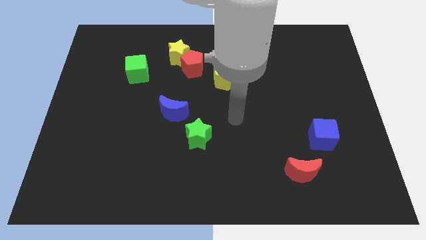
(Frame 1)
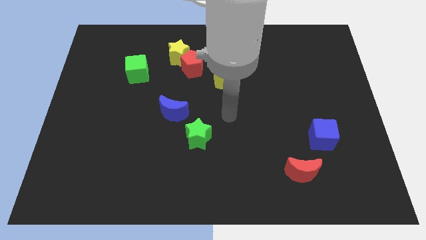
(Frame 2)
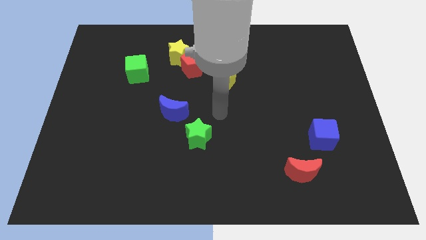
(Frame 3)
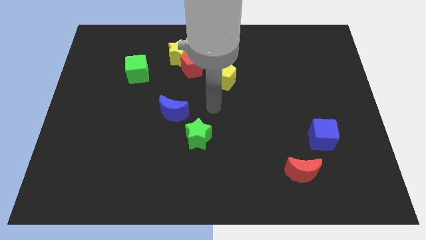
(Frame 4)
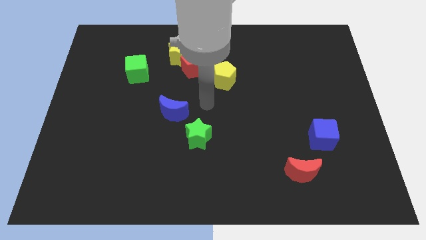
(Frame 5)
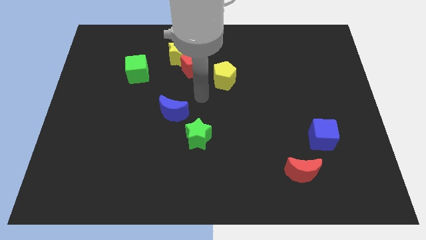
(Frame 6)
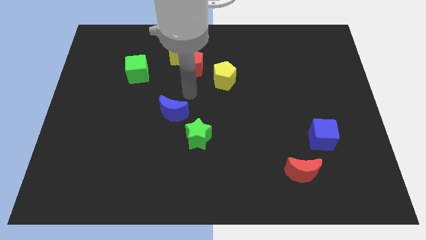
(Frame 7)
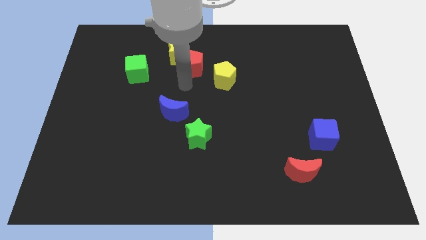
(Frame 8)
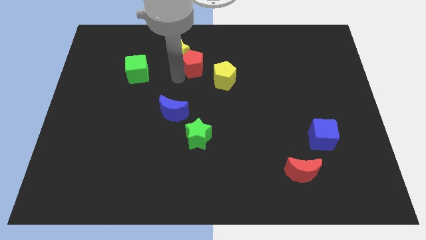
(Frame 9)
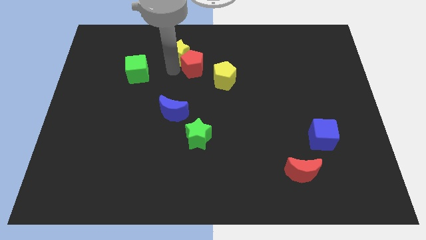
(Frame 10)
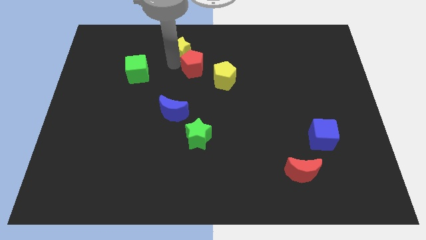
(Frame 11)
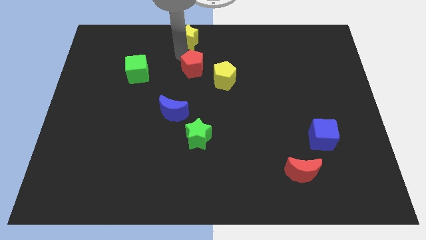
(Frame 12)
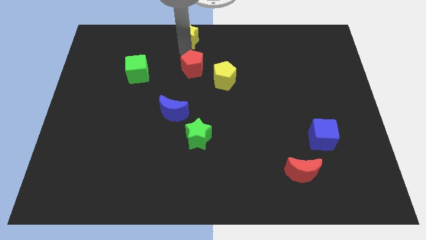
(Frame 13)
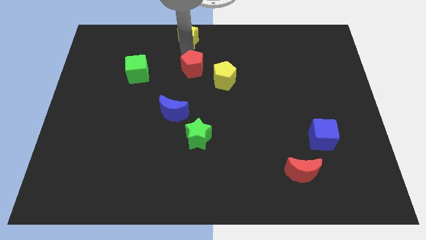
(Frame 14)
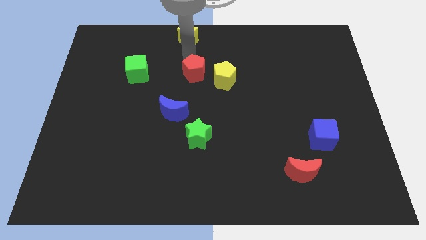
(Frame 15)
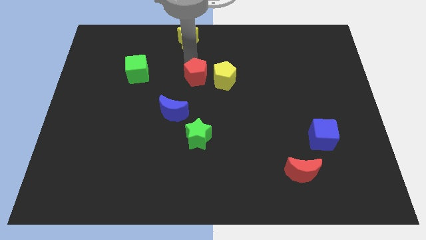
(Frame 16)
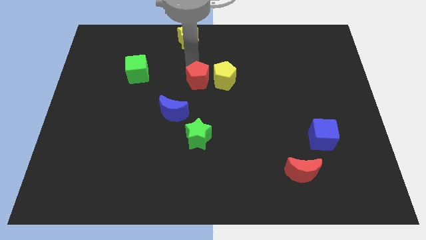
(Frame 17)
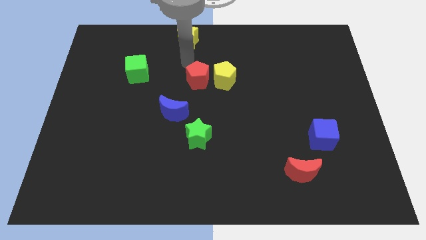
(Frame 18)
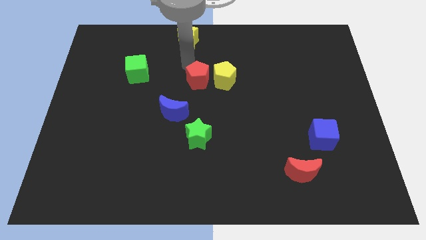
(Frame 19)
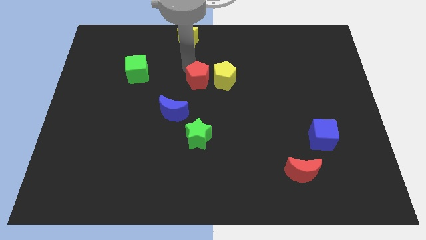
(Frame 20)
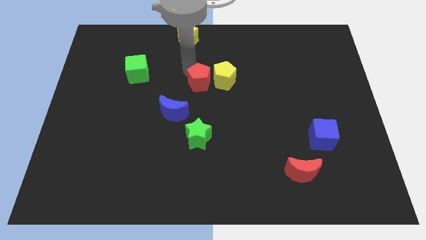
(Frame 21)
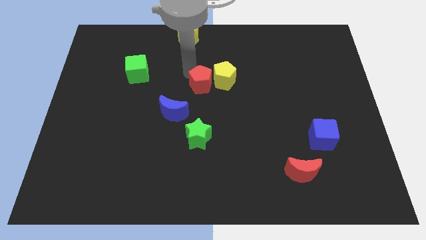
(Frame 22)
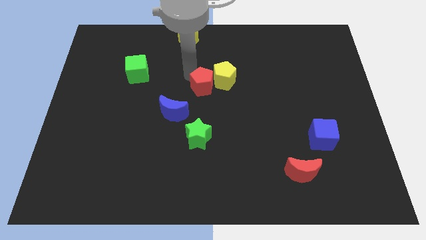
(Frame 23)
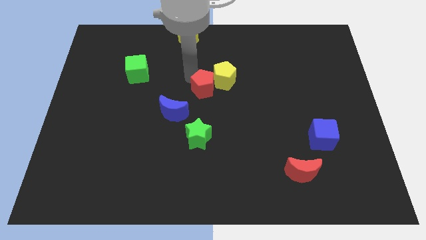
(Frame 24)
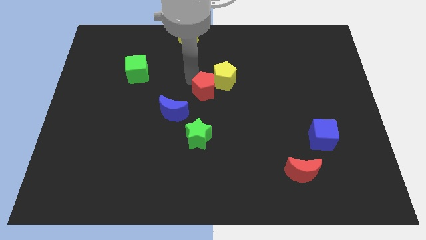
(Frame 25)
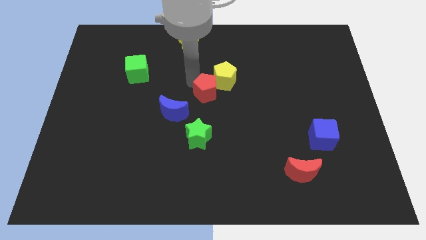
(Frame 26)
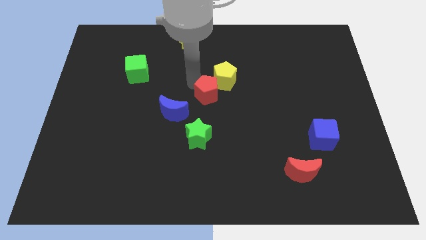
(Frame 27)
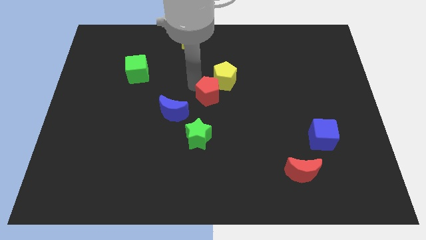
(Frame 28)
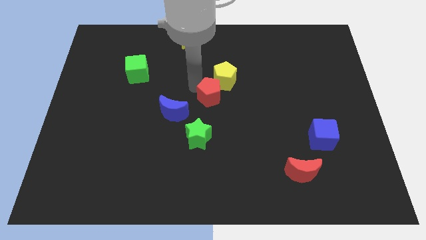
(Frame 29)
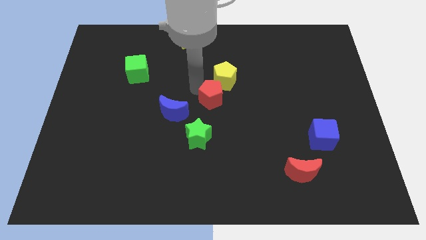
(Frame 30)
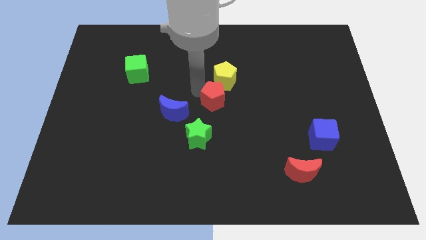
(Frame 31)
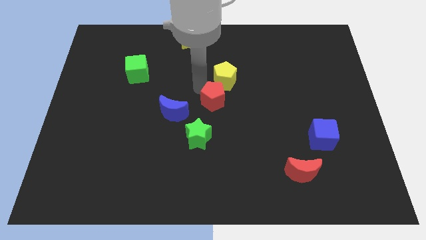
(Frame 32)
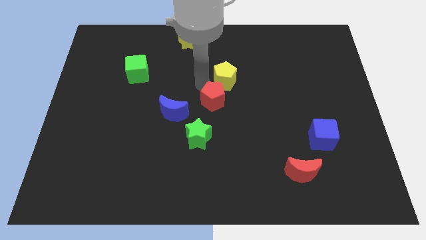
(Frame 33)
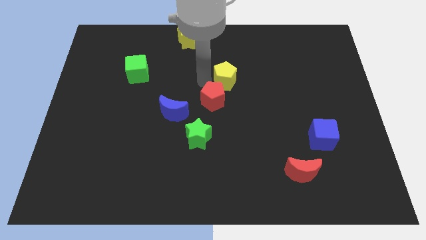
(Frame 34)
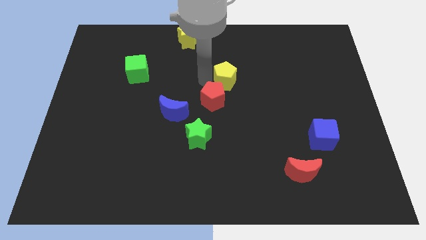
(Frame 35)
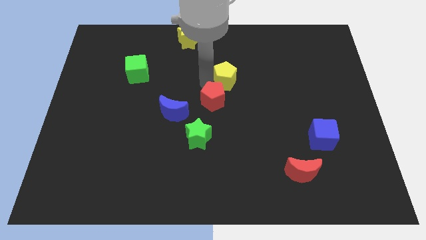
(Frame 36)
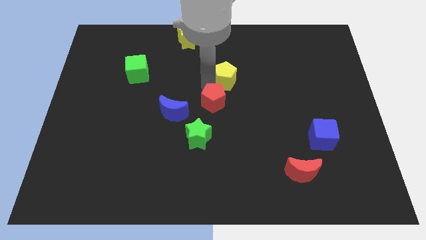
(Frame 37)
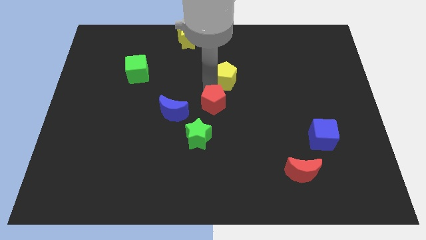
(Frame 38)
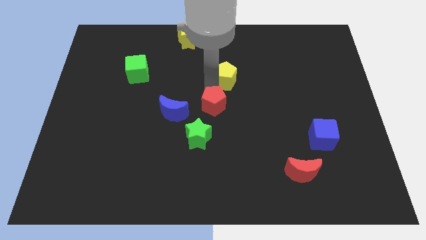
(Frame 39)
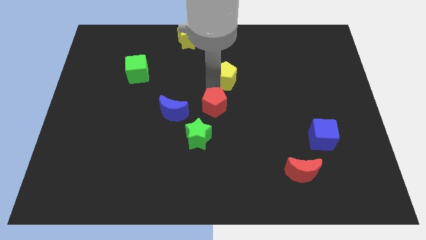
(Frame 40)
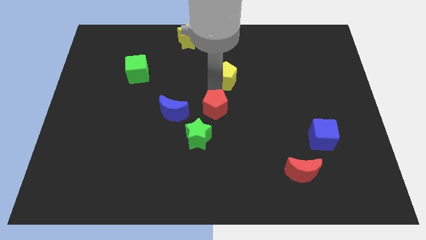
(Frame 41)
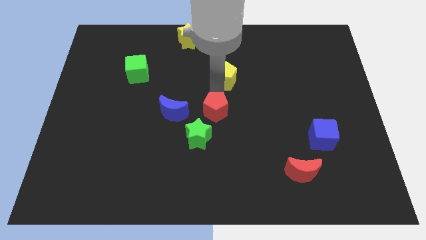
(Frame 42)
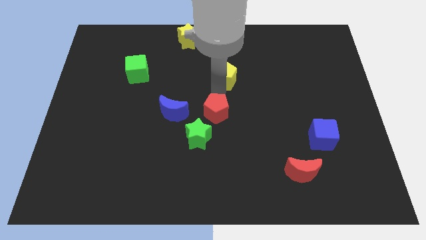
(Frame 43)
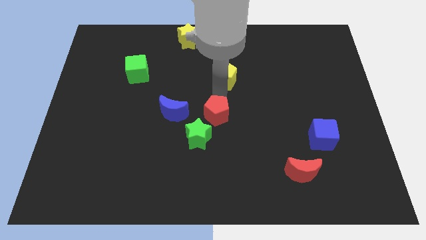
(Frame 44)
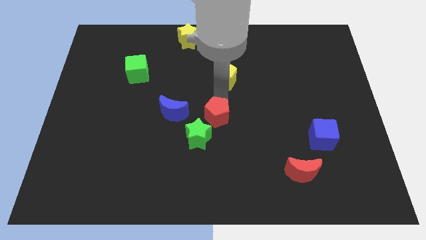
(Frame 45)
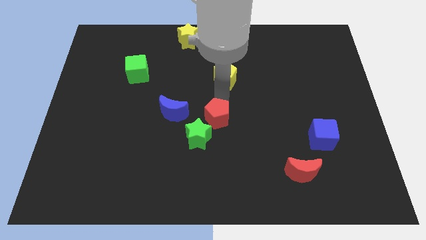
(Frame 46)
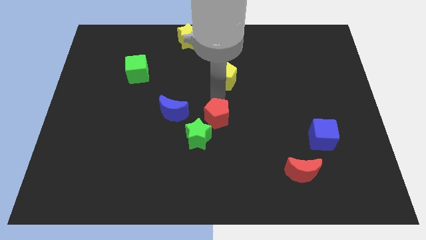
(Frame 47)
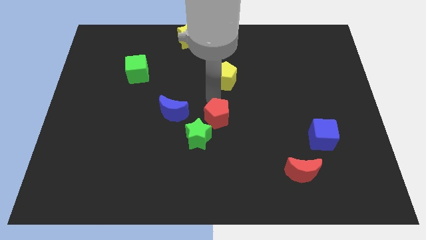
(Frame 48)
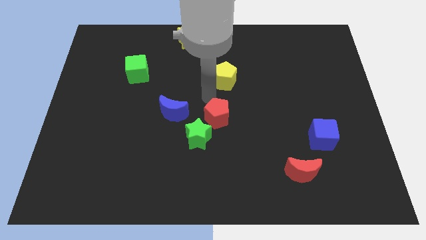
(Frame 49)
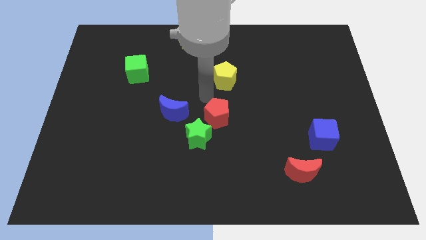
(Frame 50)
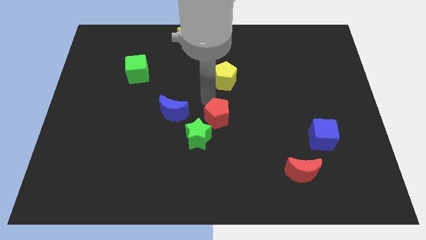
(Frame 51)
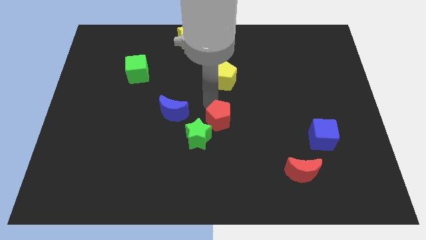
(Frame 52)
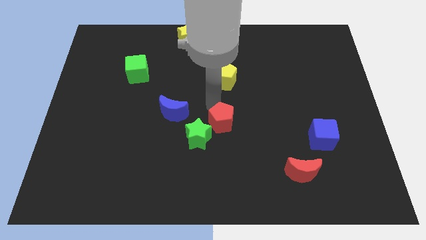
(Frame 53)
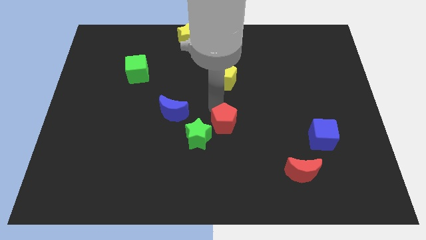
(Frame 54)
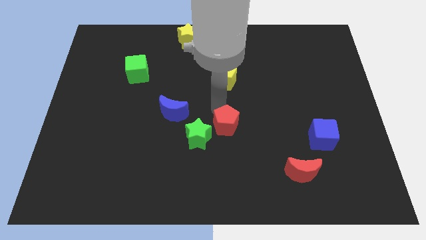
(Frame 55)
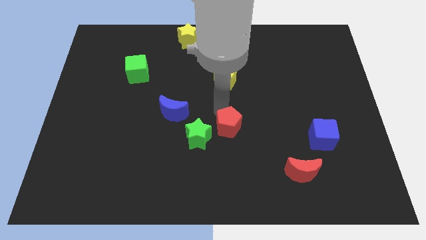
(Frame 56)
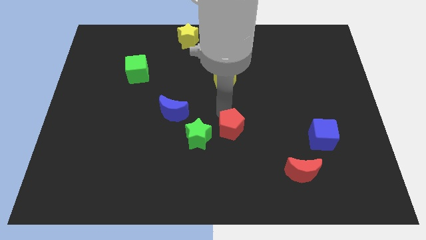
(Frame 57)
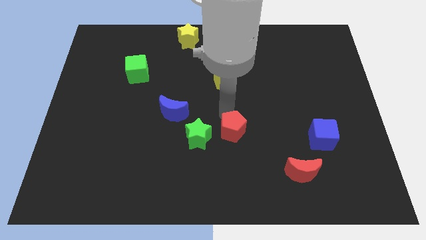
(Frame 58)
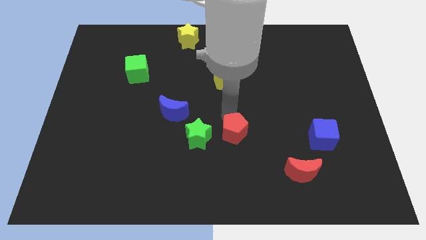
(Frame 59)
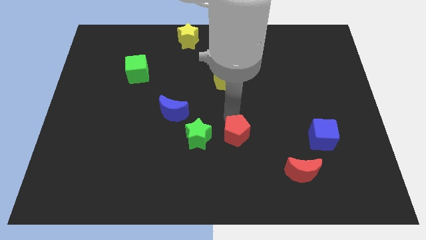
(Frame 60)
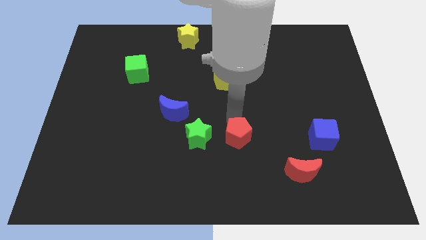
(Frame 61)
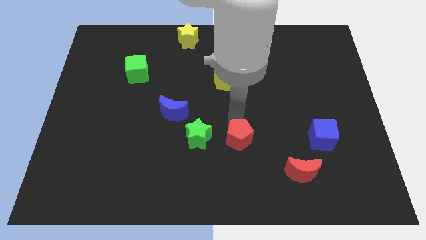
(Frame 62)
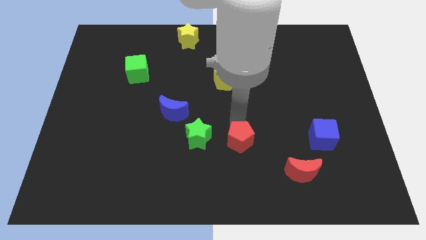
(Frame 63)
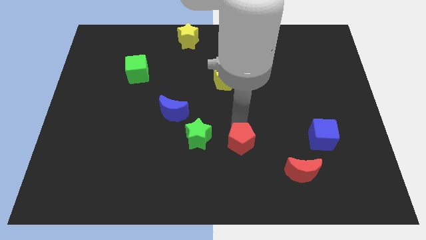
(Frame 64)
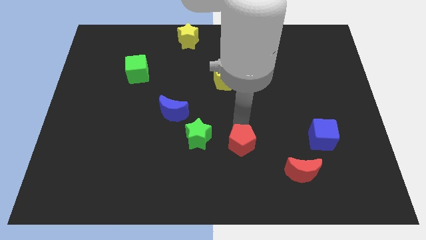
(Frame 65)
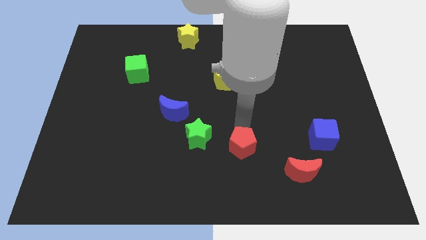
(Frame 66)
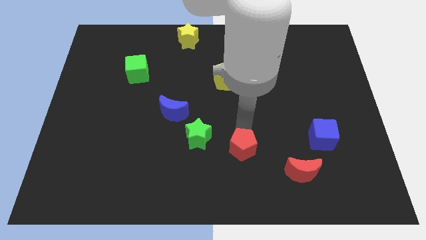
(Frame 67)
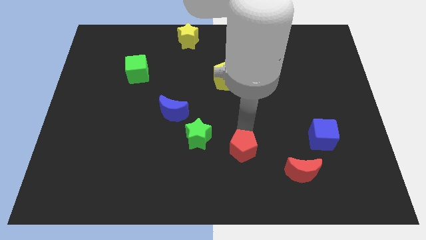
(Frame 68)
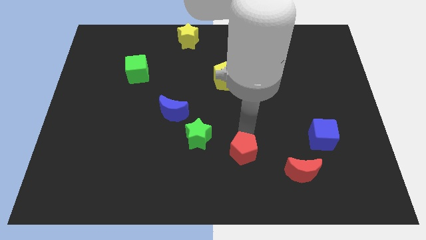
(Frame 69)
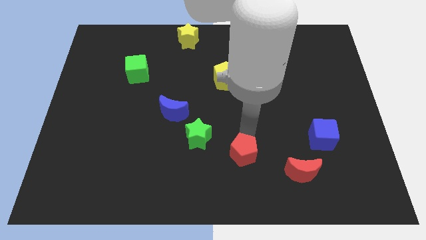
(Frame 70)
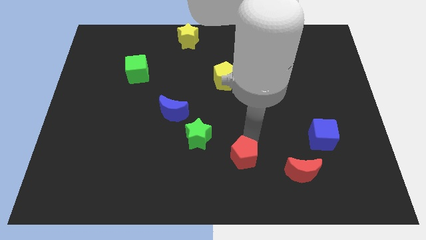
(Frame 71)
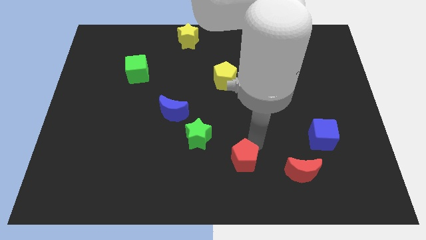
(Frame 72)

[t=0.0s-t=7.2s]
slide the red pentagon to the bottom
